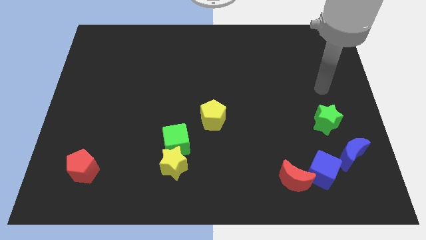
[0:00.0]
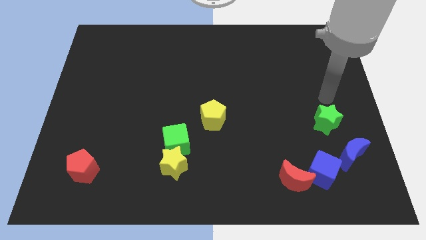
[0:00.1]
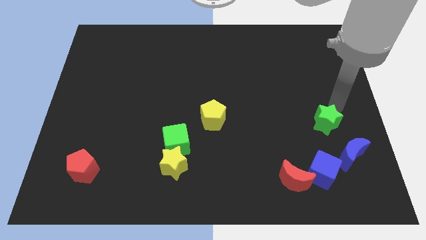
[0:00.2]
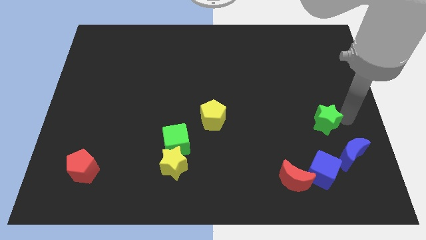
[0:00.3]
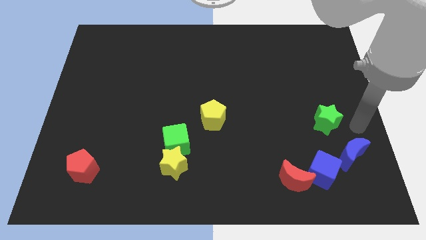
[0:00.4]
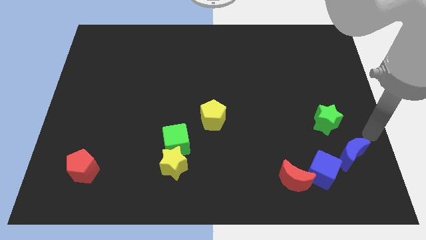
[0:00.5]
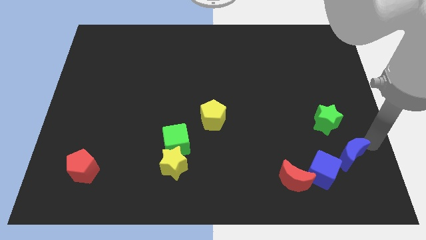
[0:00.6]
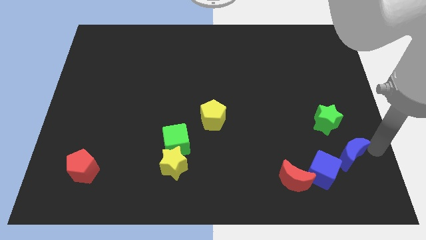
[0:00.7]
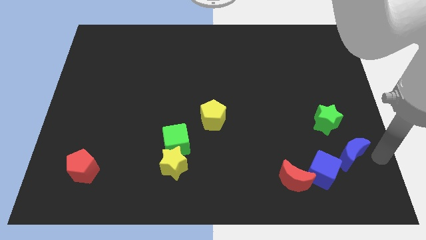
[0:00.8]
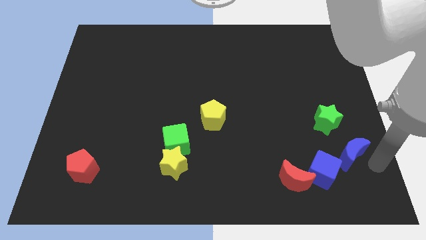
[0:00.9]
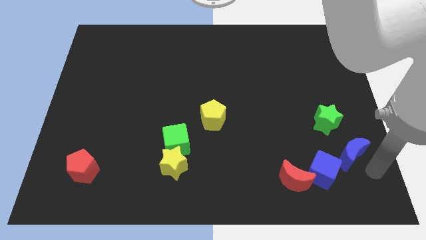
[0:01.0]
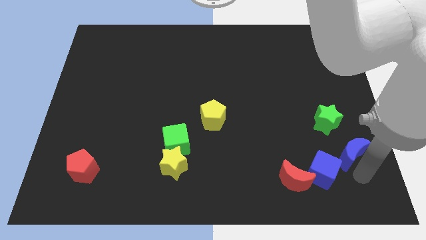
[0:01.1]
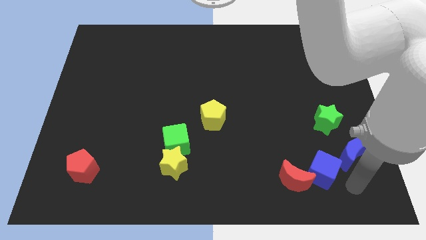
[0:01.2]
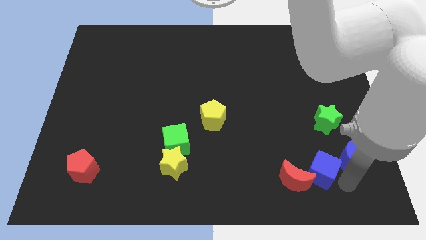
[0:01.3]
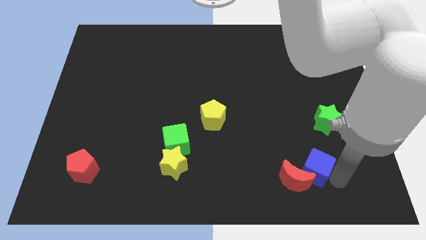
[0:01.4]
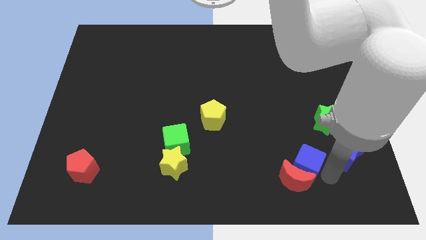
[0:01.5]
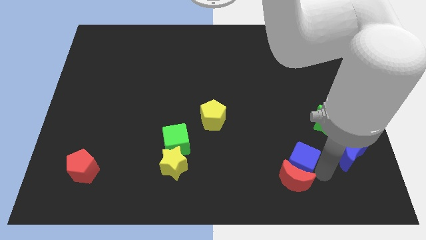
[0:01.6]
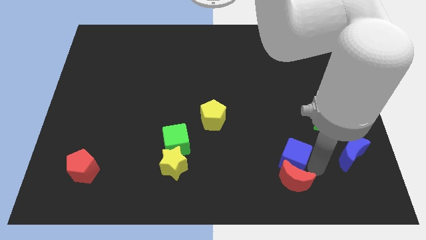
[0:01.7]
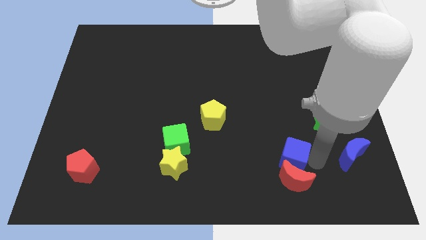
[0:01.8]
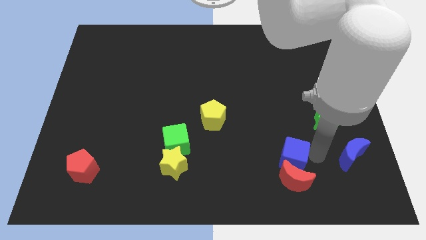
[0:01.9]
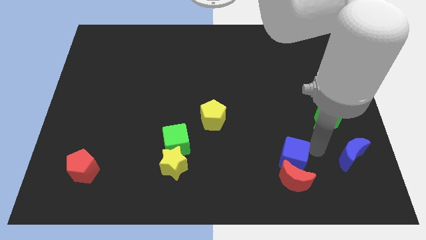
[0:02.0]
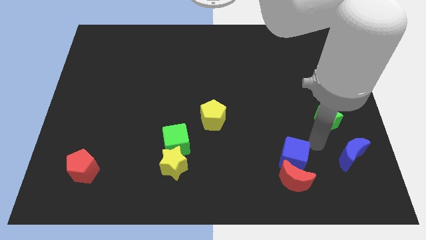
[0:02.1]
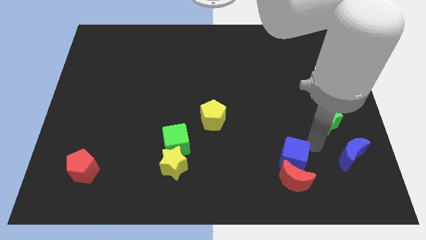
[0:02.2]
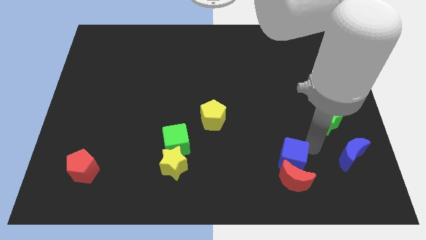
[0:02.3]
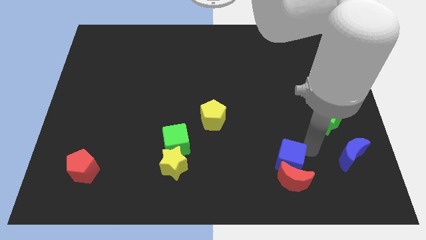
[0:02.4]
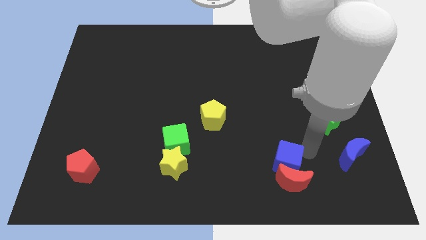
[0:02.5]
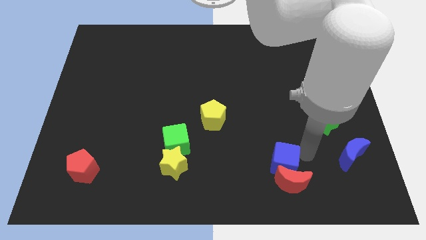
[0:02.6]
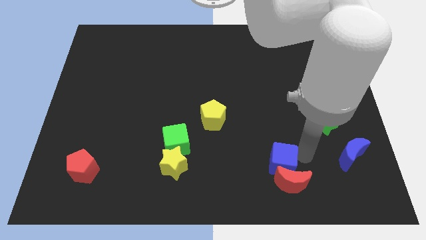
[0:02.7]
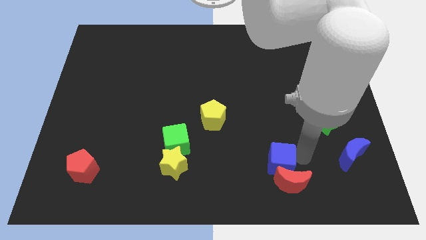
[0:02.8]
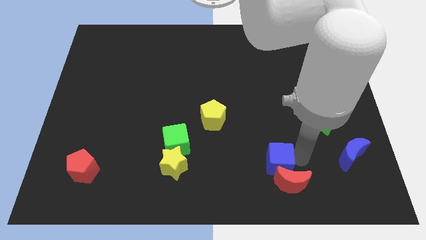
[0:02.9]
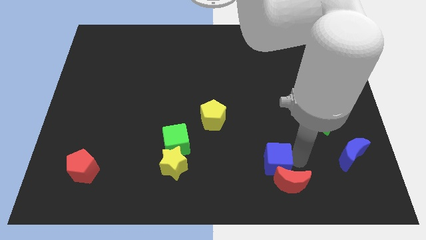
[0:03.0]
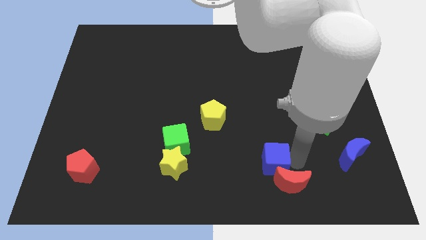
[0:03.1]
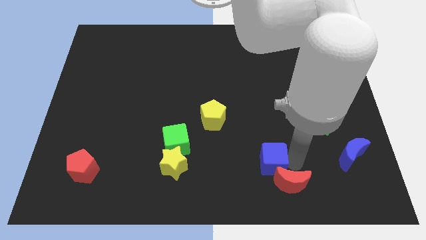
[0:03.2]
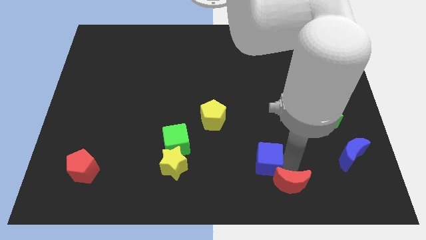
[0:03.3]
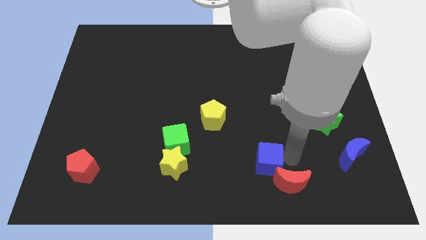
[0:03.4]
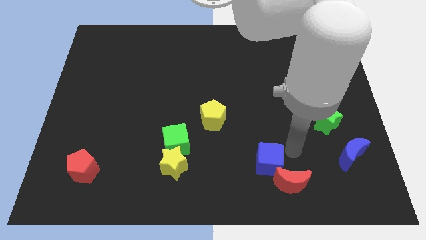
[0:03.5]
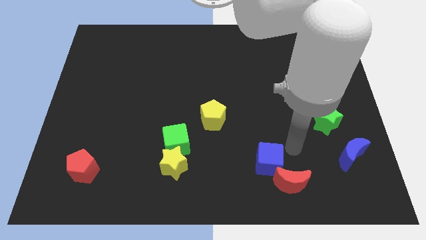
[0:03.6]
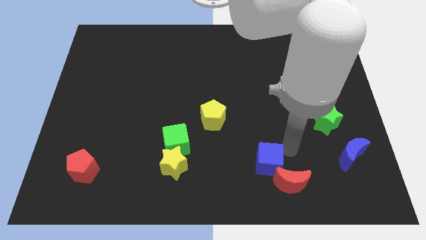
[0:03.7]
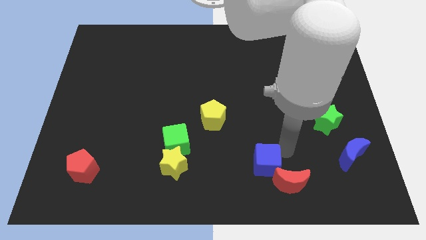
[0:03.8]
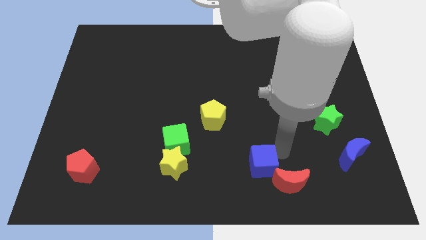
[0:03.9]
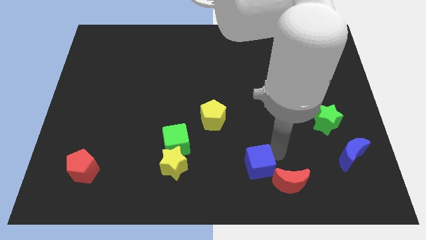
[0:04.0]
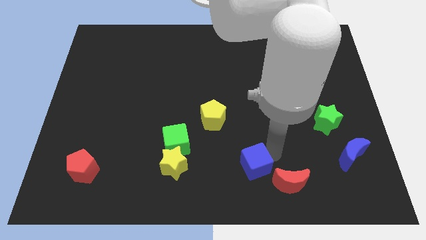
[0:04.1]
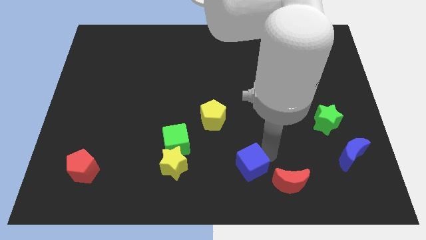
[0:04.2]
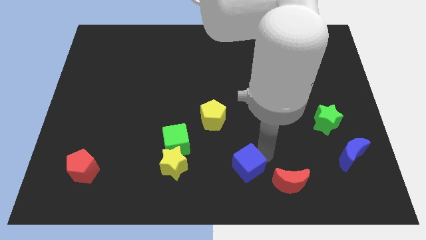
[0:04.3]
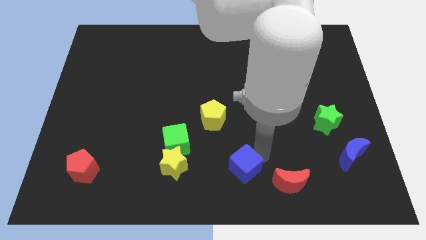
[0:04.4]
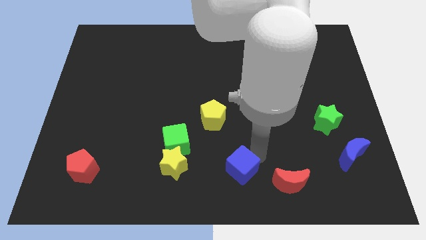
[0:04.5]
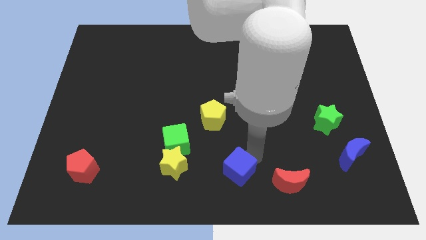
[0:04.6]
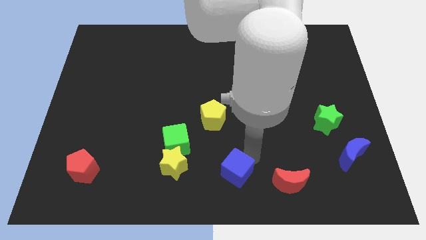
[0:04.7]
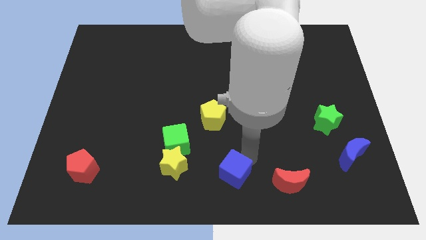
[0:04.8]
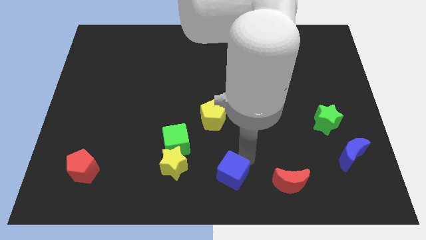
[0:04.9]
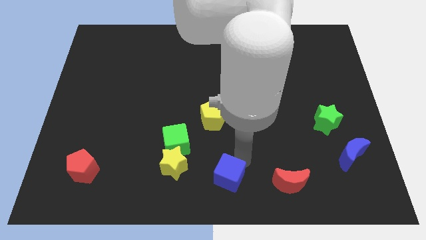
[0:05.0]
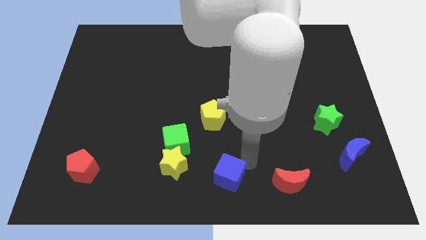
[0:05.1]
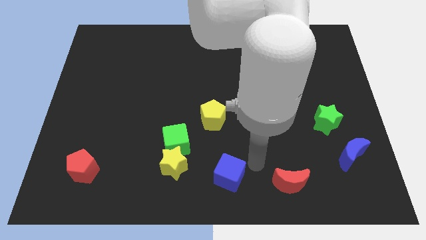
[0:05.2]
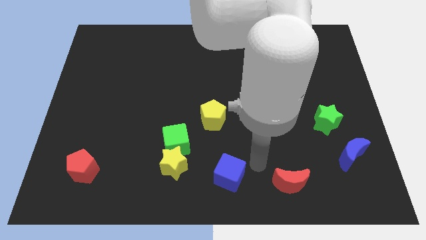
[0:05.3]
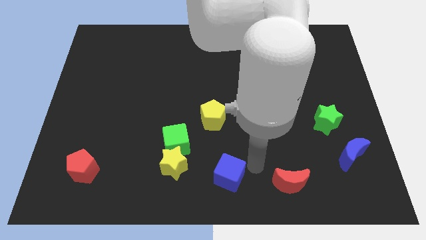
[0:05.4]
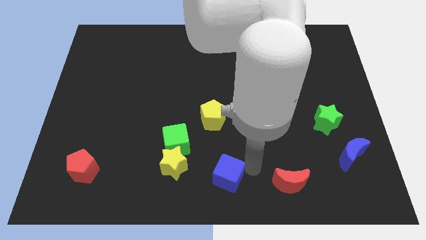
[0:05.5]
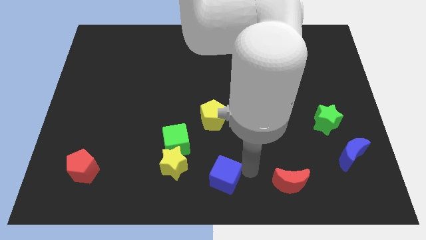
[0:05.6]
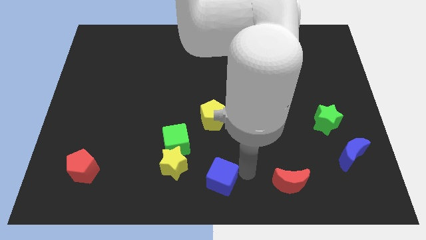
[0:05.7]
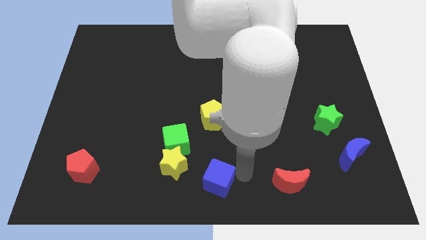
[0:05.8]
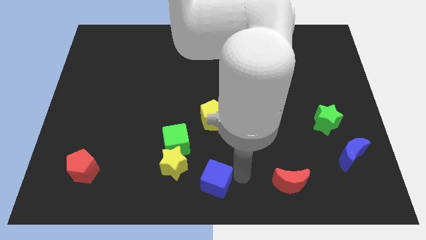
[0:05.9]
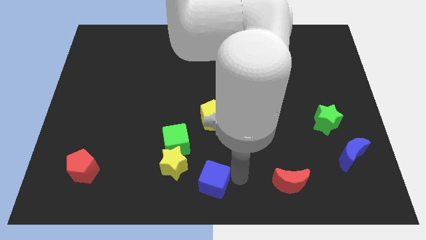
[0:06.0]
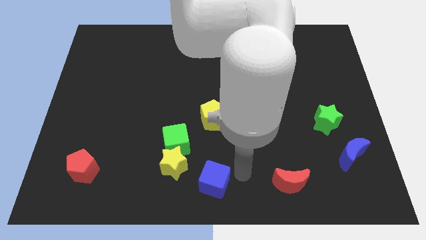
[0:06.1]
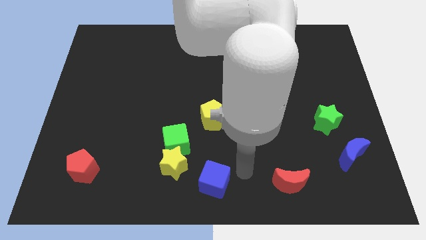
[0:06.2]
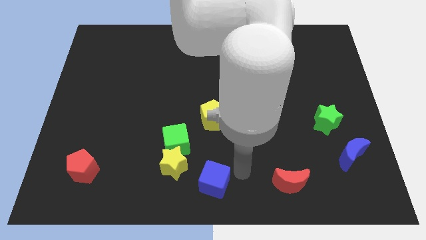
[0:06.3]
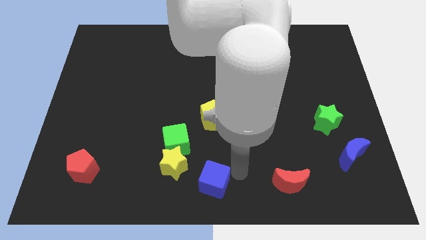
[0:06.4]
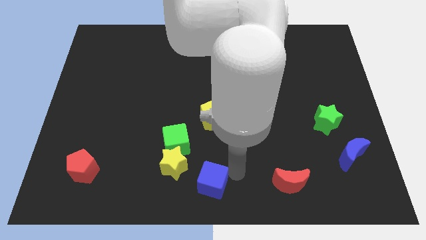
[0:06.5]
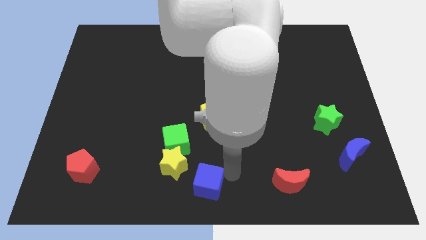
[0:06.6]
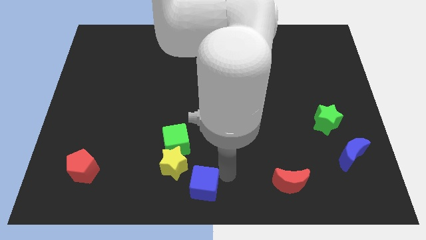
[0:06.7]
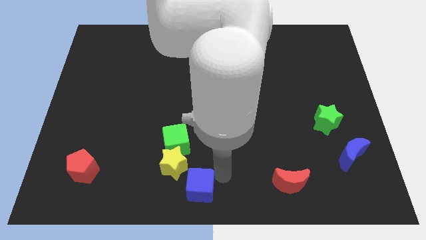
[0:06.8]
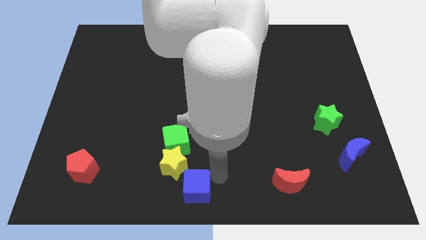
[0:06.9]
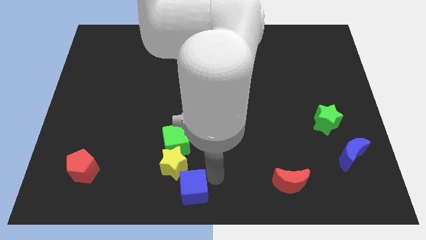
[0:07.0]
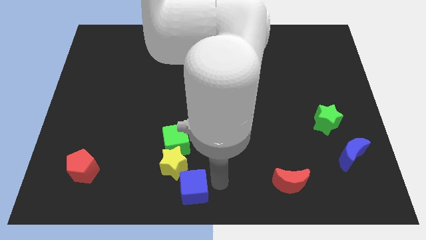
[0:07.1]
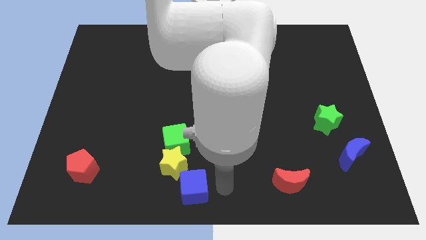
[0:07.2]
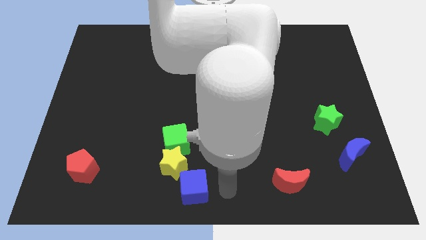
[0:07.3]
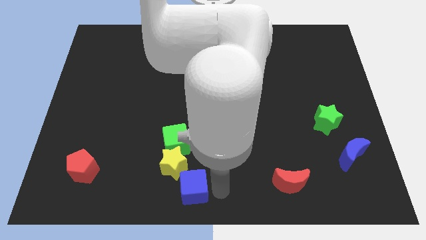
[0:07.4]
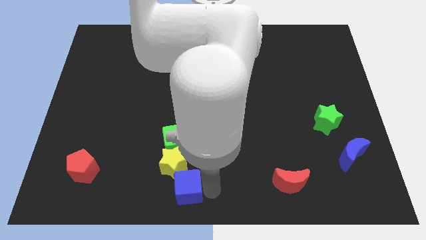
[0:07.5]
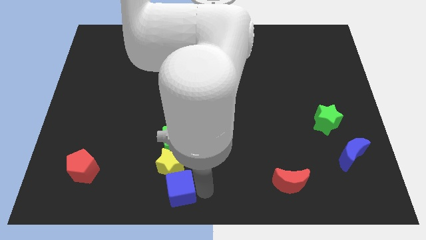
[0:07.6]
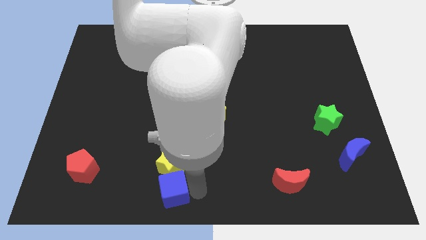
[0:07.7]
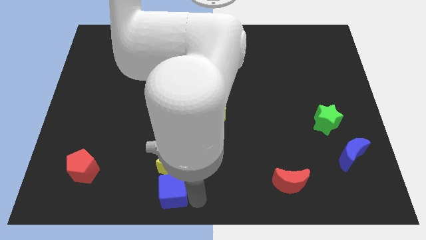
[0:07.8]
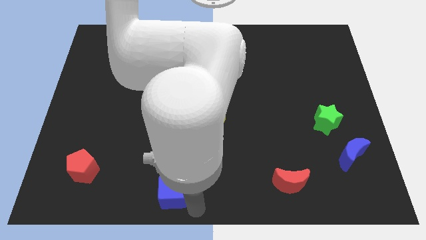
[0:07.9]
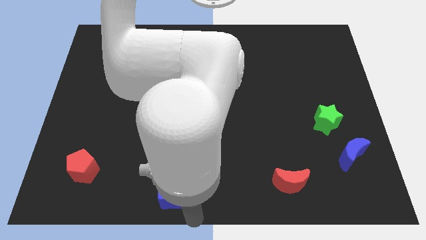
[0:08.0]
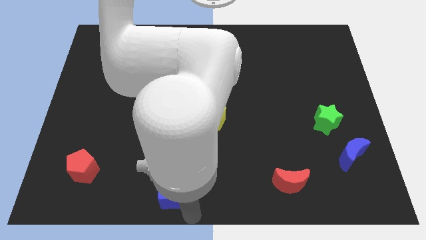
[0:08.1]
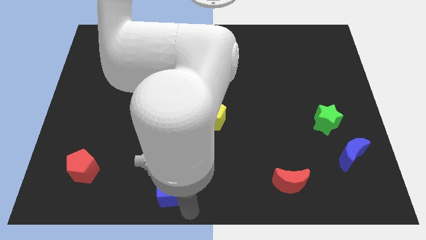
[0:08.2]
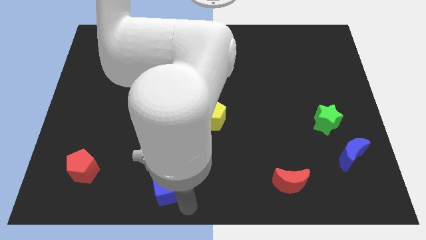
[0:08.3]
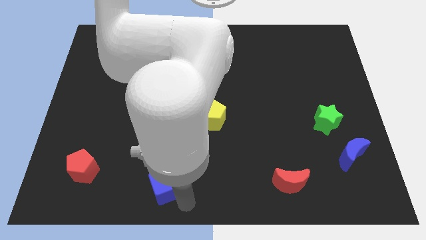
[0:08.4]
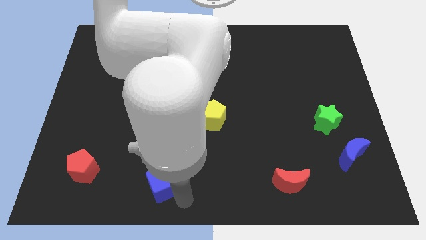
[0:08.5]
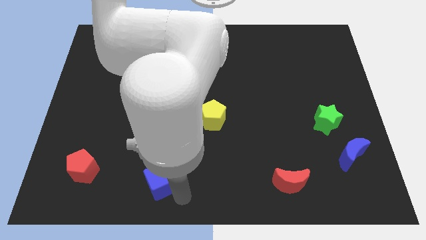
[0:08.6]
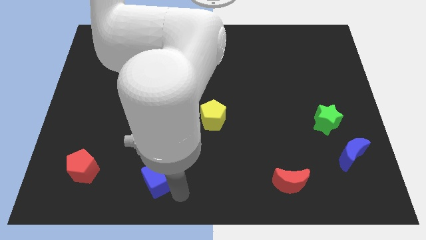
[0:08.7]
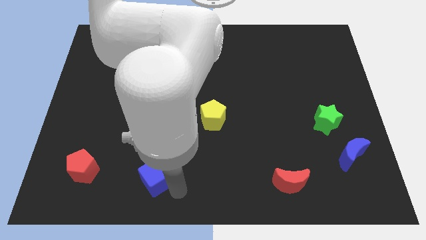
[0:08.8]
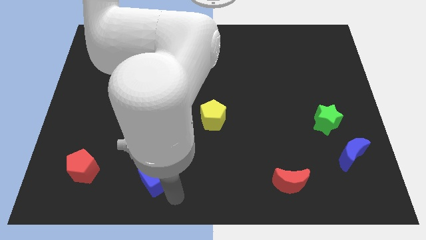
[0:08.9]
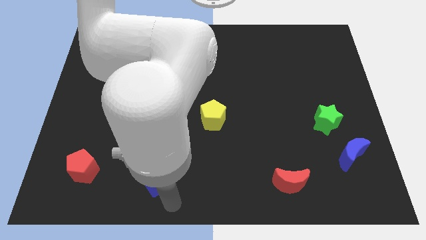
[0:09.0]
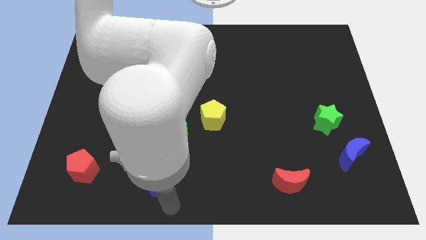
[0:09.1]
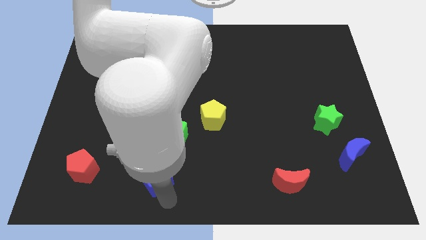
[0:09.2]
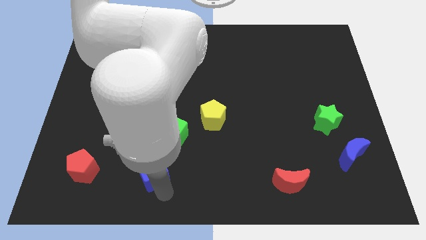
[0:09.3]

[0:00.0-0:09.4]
slide the blue cube to the bottom left of the green cube
